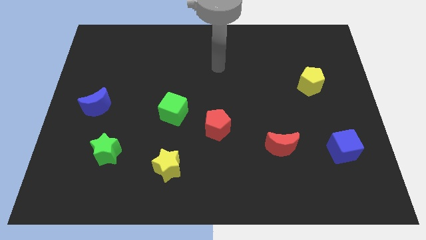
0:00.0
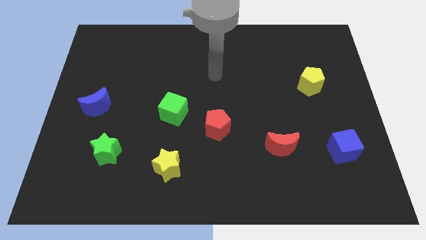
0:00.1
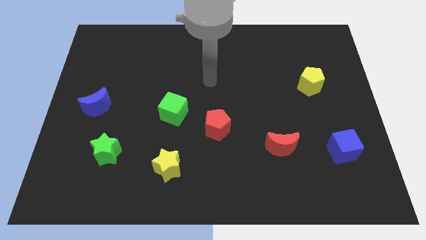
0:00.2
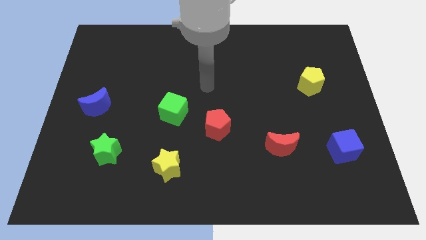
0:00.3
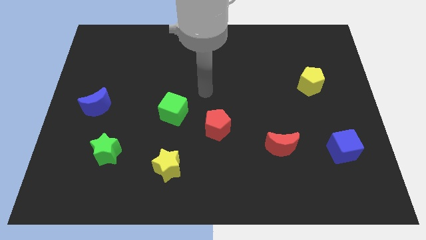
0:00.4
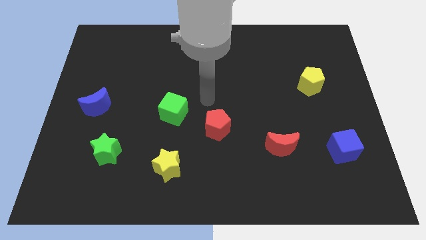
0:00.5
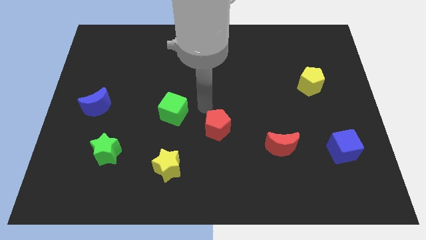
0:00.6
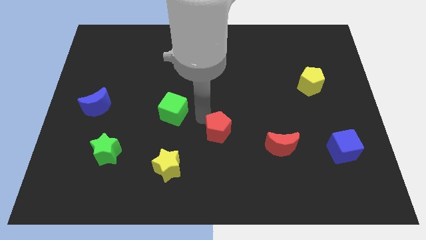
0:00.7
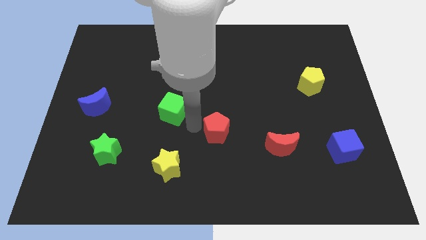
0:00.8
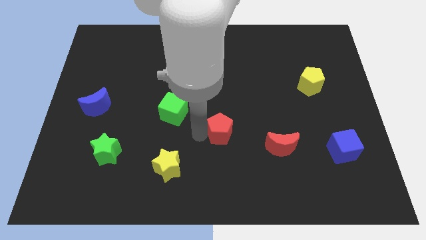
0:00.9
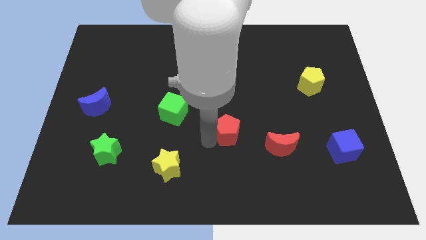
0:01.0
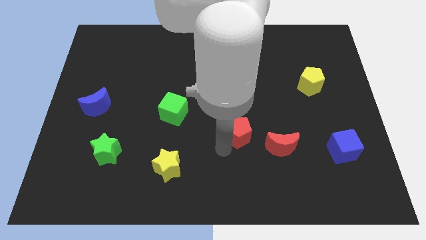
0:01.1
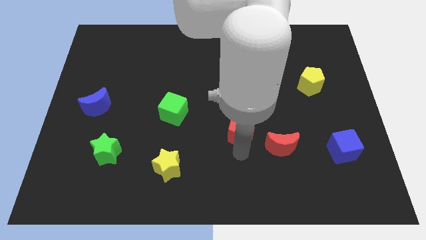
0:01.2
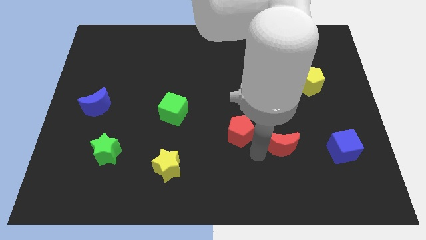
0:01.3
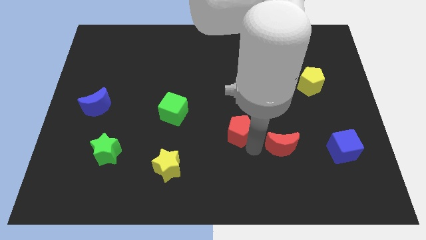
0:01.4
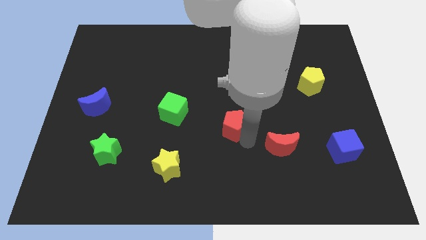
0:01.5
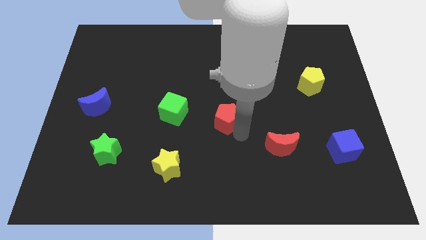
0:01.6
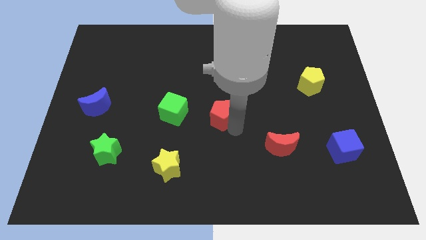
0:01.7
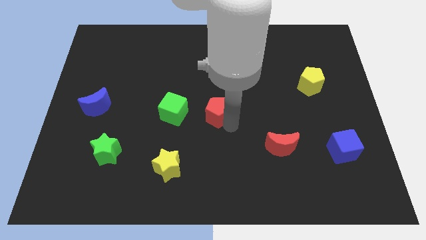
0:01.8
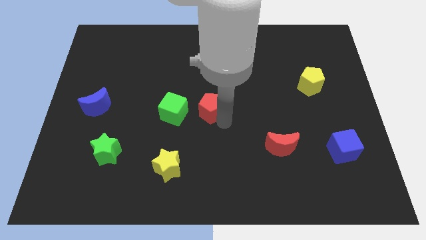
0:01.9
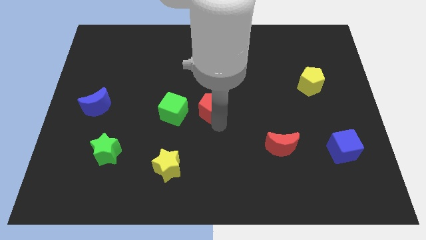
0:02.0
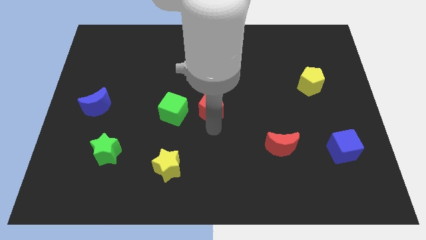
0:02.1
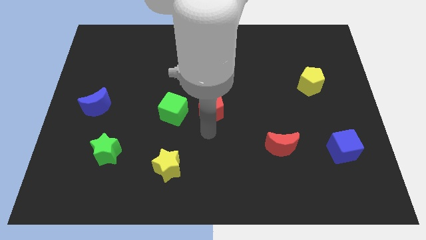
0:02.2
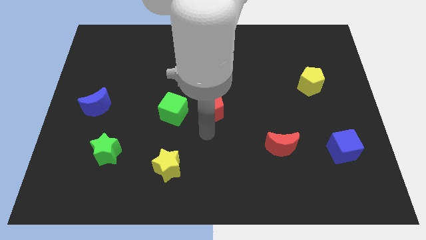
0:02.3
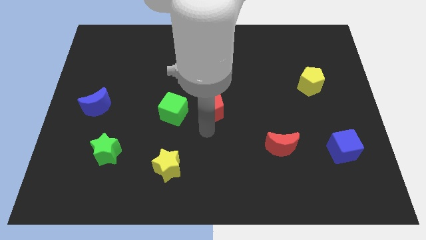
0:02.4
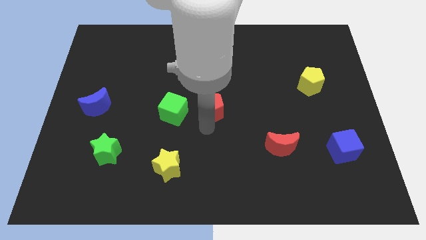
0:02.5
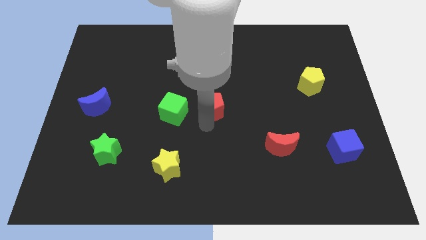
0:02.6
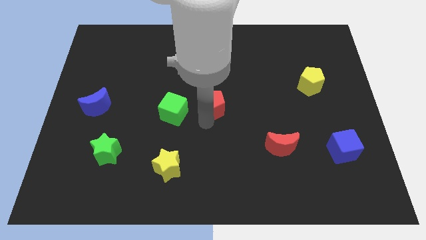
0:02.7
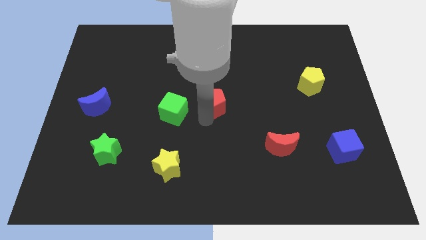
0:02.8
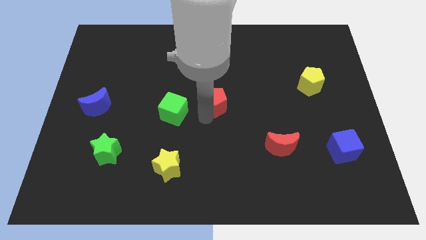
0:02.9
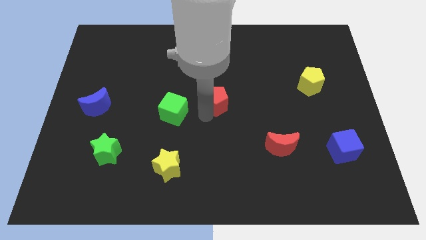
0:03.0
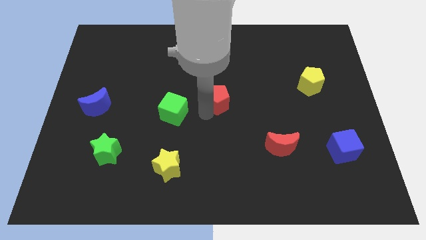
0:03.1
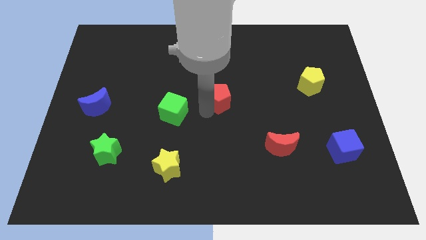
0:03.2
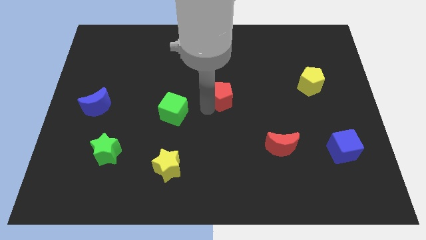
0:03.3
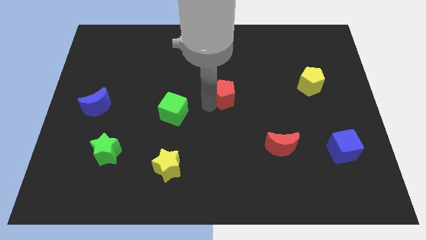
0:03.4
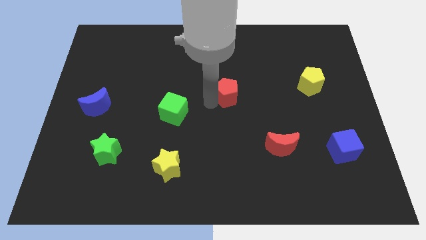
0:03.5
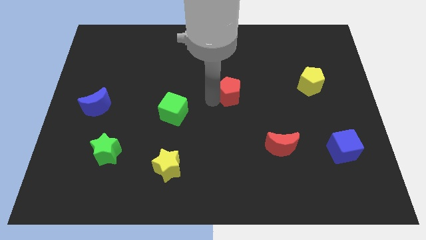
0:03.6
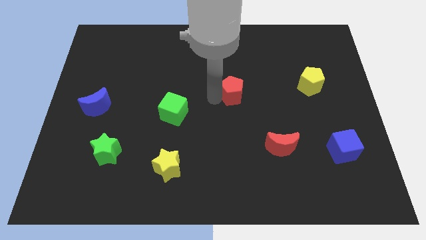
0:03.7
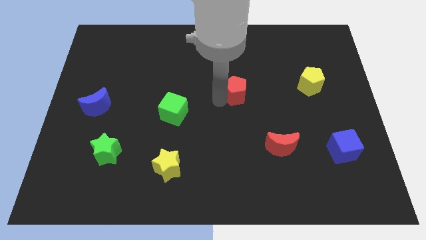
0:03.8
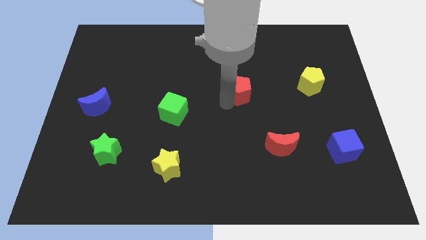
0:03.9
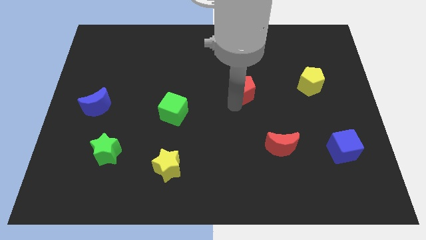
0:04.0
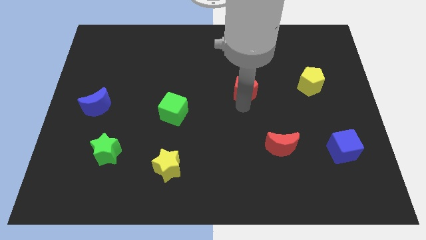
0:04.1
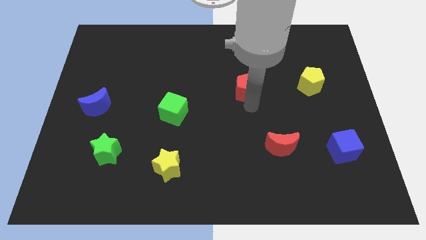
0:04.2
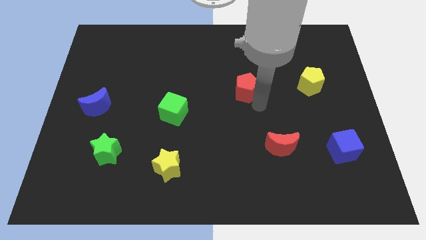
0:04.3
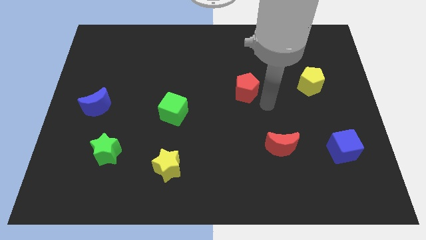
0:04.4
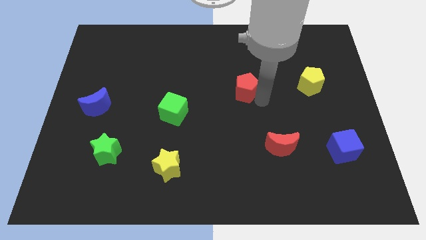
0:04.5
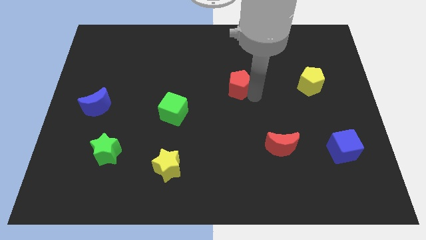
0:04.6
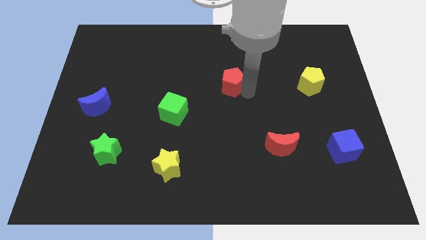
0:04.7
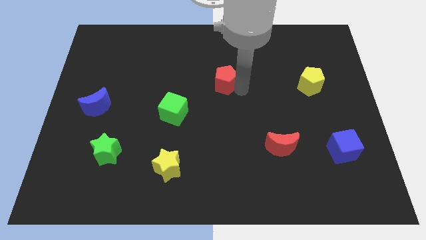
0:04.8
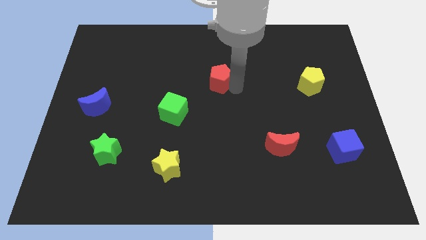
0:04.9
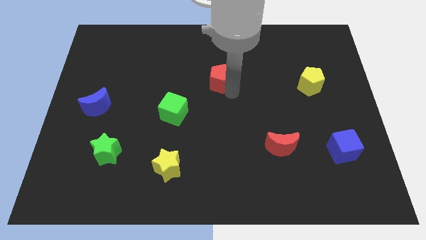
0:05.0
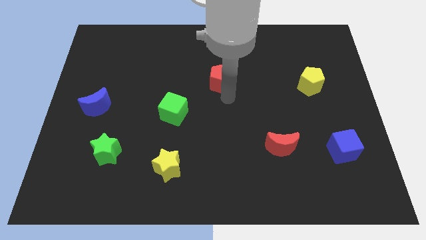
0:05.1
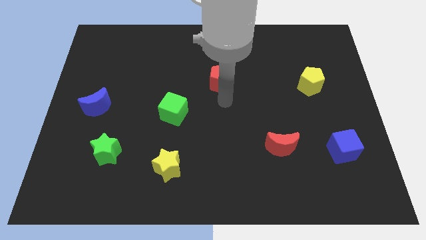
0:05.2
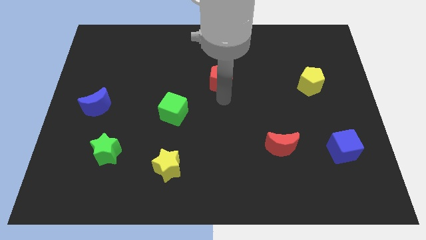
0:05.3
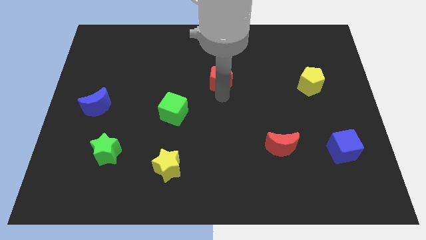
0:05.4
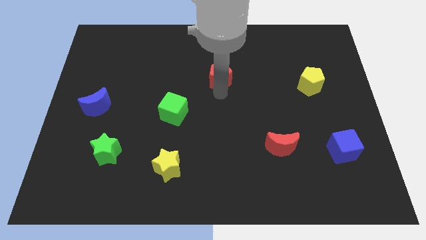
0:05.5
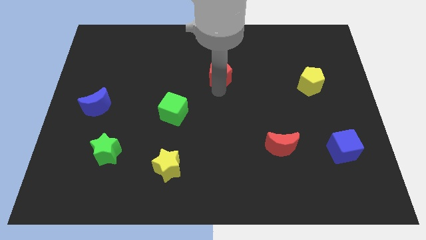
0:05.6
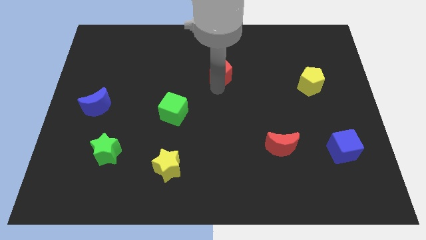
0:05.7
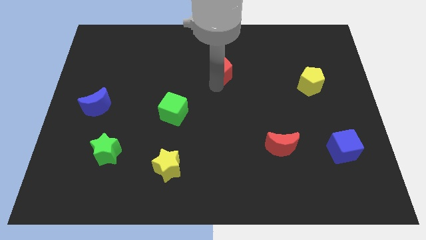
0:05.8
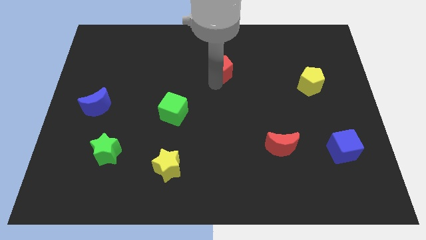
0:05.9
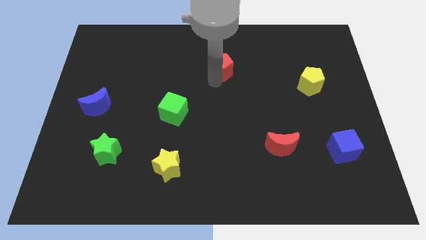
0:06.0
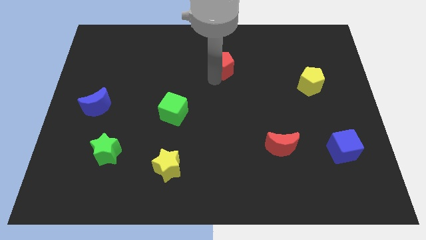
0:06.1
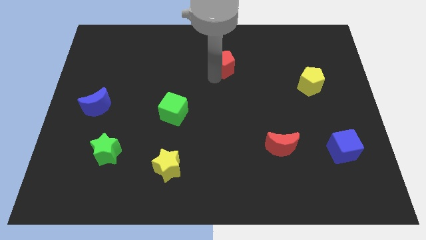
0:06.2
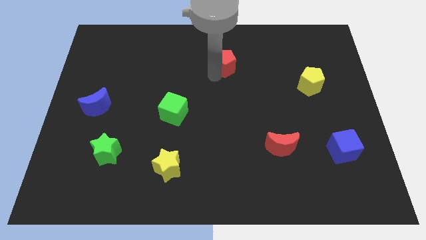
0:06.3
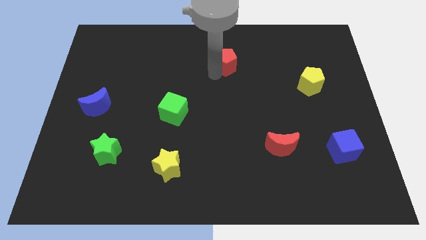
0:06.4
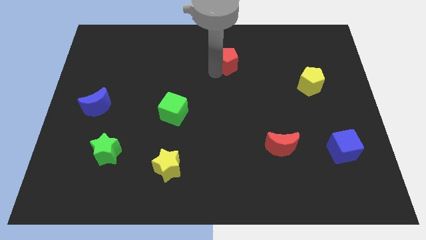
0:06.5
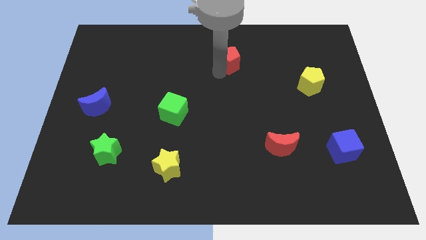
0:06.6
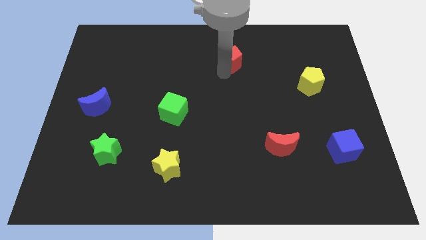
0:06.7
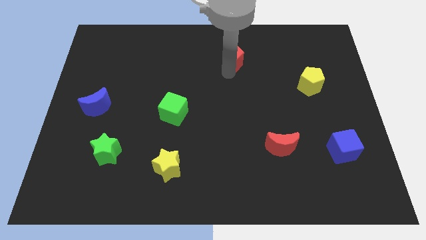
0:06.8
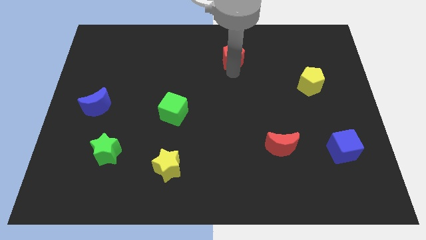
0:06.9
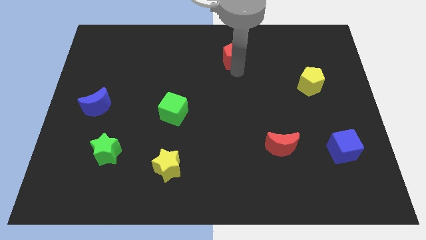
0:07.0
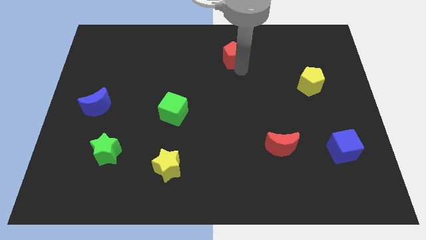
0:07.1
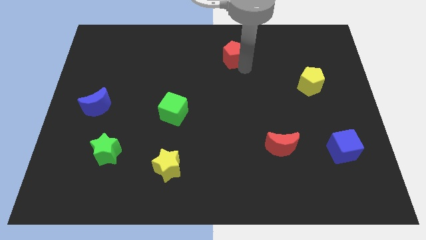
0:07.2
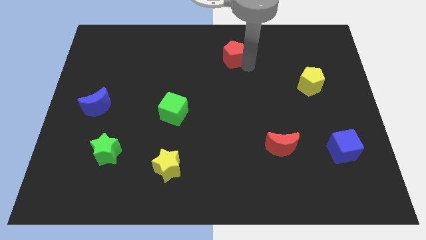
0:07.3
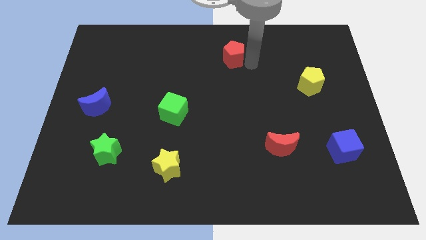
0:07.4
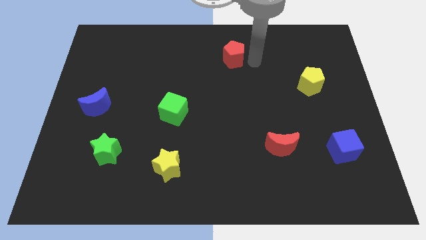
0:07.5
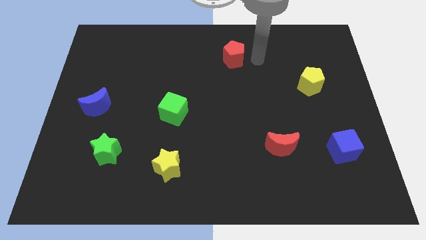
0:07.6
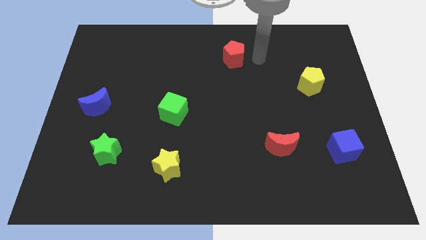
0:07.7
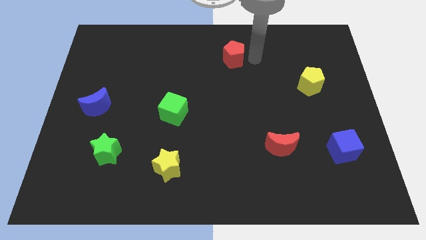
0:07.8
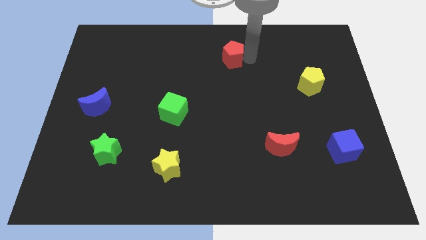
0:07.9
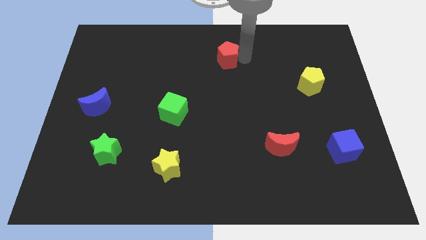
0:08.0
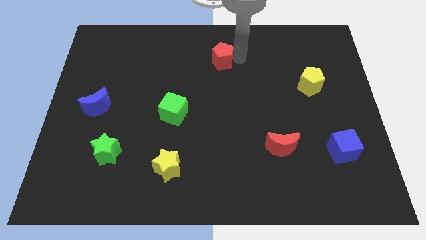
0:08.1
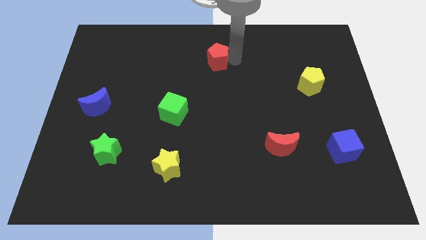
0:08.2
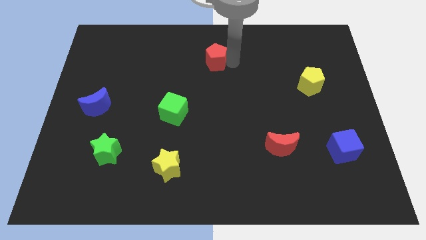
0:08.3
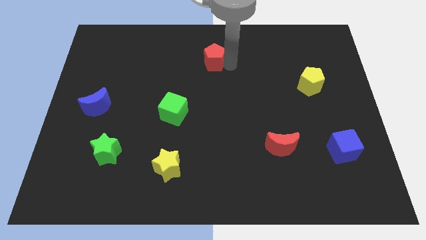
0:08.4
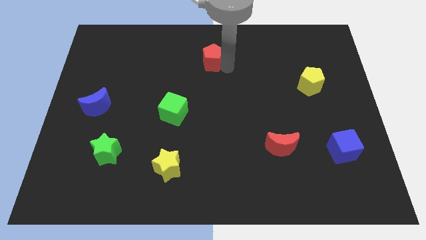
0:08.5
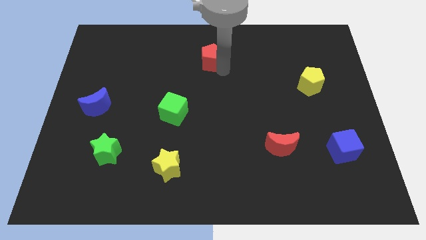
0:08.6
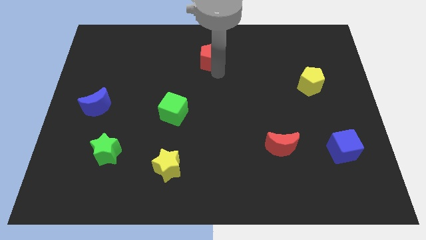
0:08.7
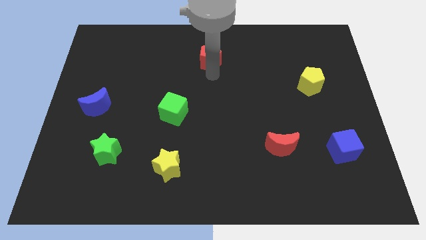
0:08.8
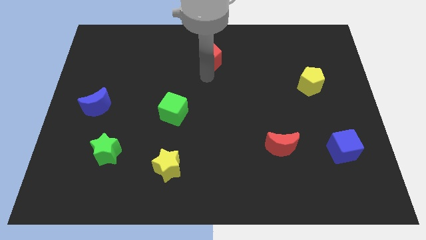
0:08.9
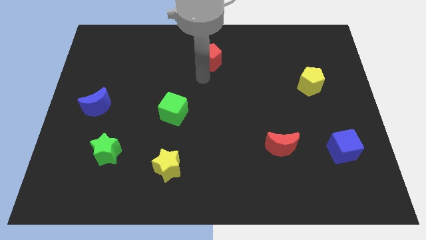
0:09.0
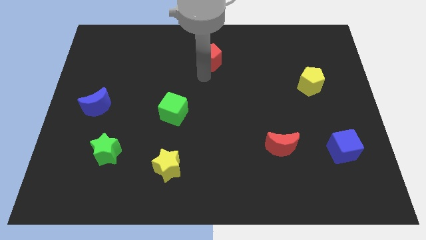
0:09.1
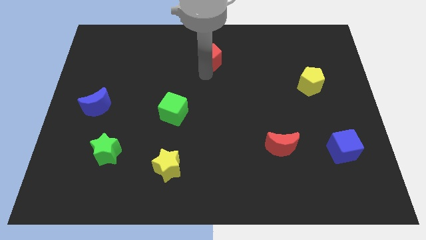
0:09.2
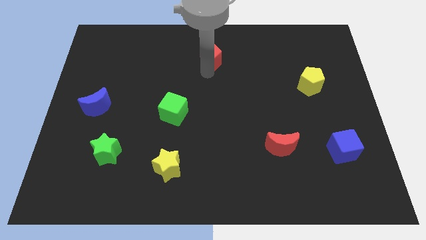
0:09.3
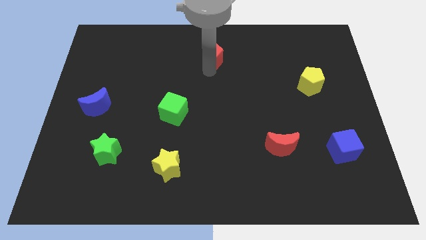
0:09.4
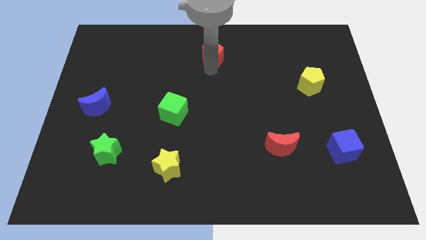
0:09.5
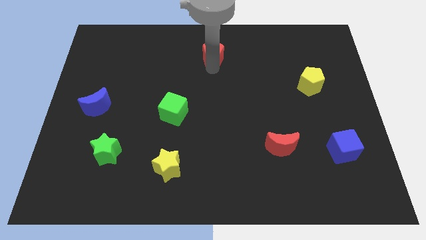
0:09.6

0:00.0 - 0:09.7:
slide the red pentagon to the top
